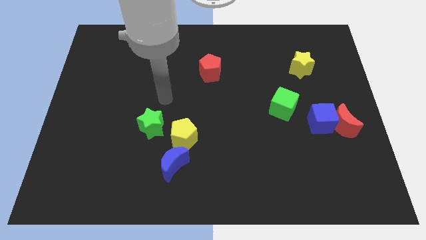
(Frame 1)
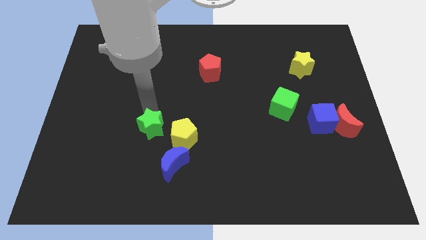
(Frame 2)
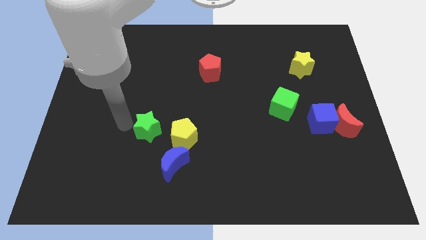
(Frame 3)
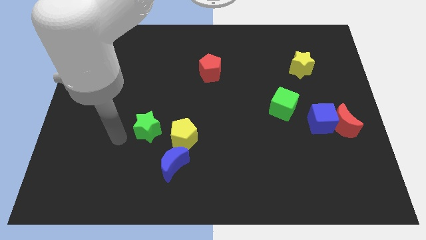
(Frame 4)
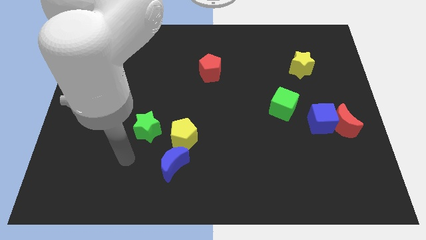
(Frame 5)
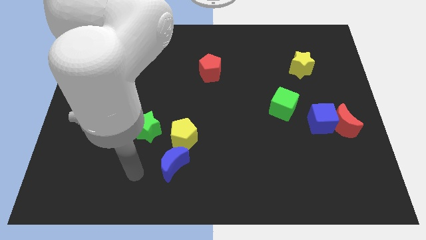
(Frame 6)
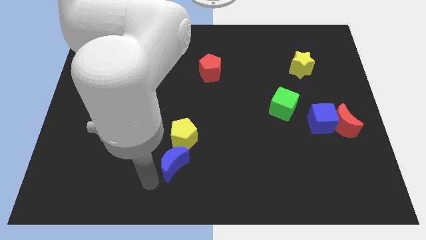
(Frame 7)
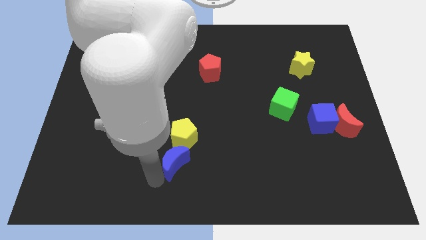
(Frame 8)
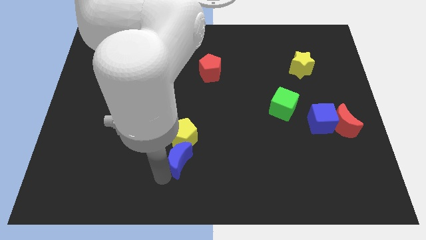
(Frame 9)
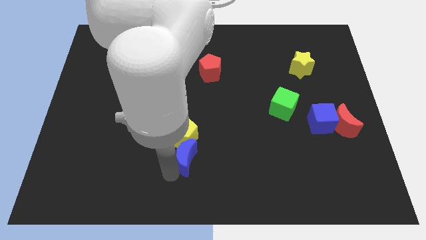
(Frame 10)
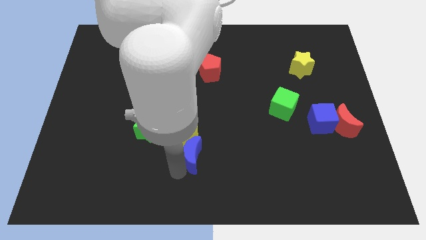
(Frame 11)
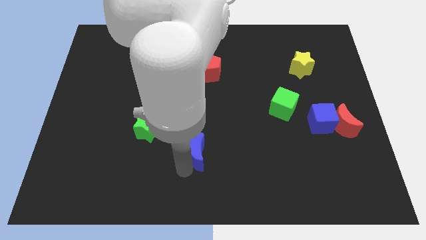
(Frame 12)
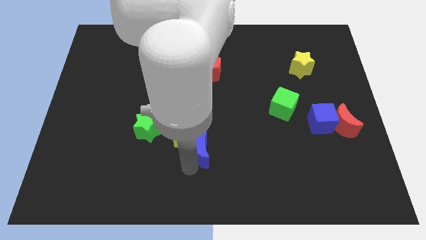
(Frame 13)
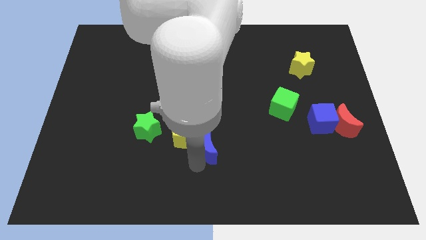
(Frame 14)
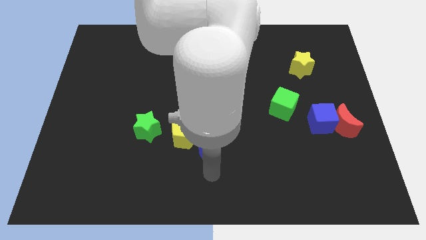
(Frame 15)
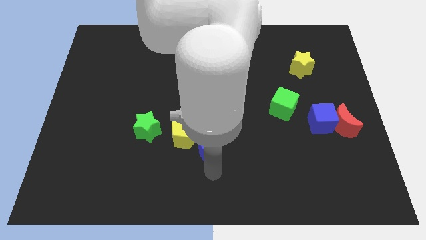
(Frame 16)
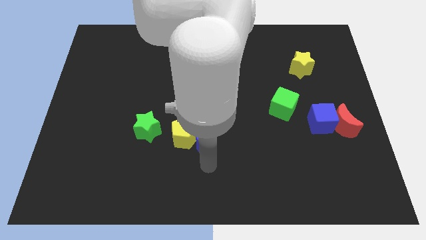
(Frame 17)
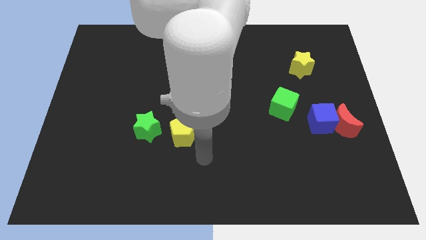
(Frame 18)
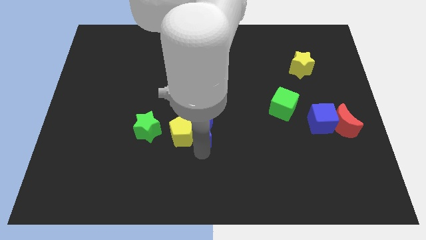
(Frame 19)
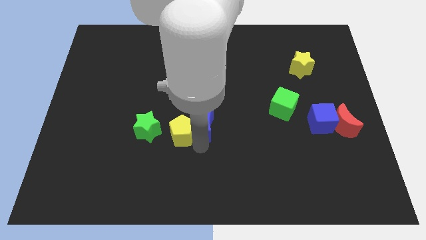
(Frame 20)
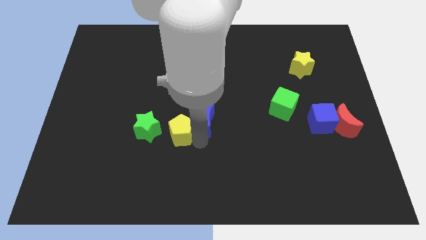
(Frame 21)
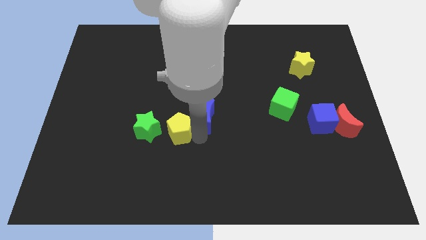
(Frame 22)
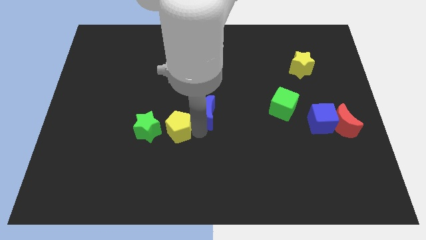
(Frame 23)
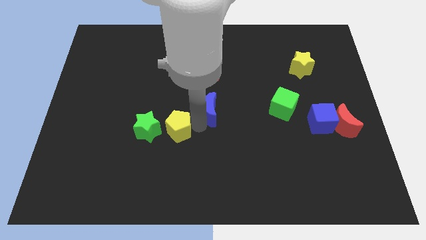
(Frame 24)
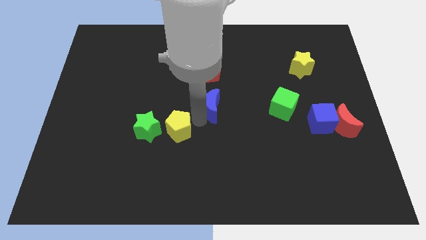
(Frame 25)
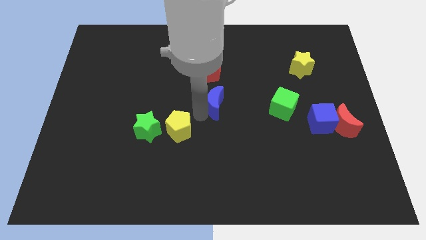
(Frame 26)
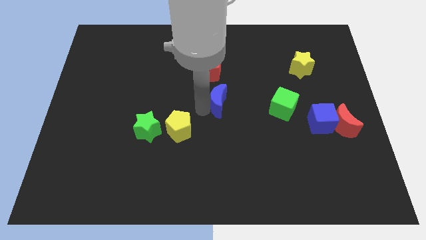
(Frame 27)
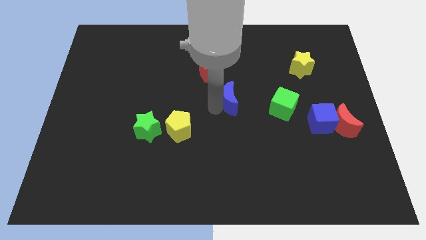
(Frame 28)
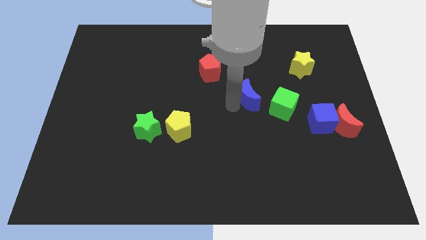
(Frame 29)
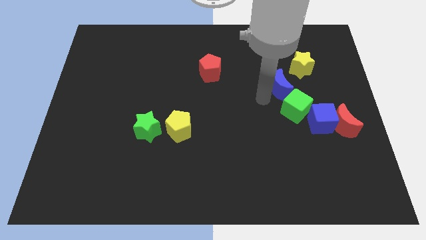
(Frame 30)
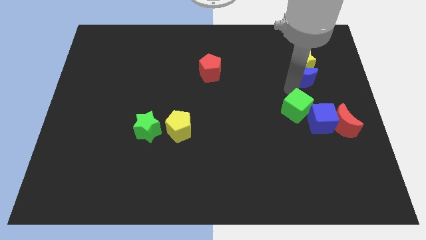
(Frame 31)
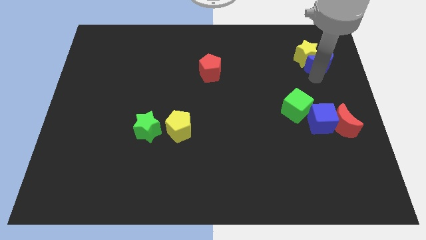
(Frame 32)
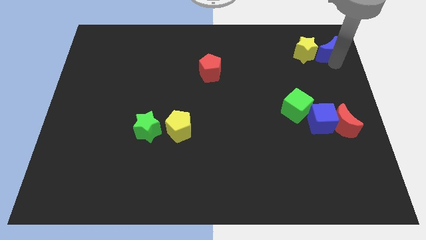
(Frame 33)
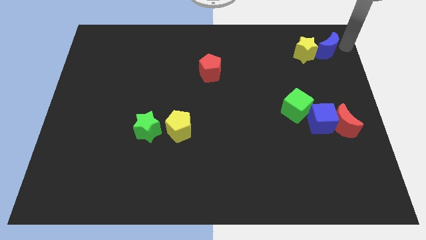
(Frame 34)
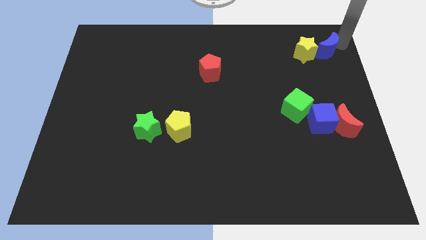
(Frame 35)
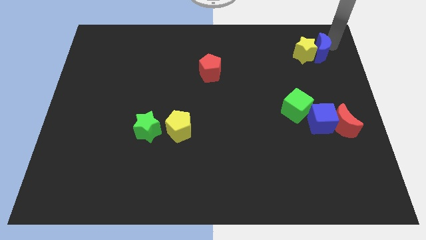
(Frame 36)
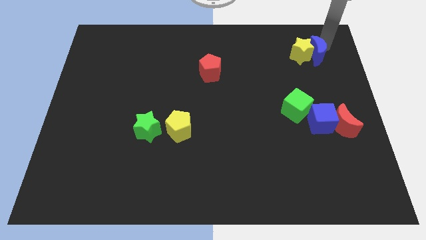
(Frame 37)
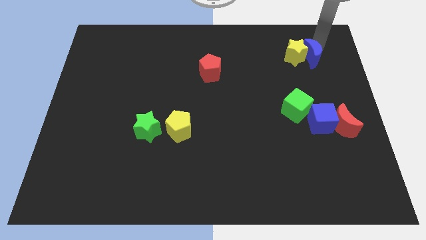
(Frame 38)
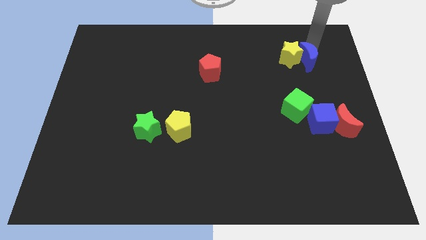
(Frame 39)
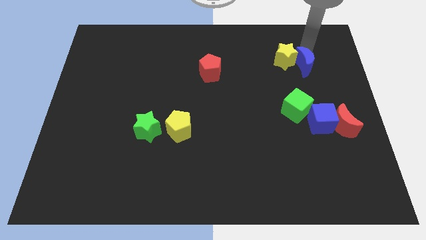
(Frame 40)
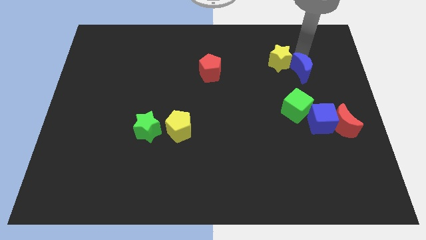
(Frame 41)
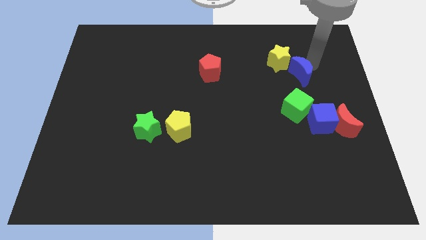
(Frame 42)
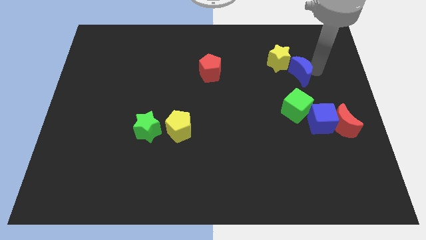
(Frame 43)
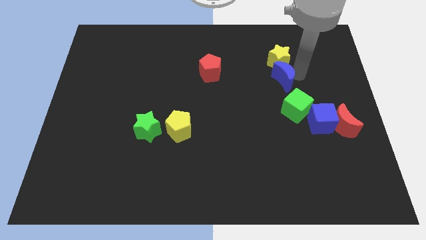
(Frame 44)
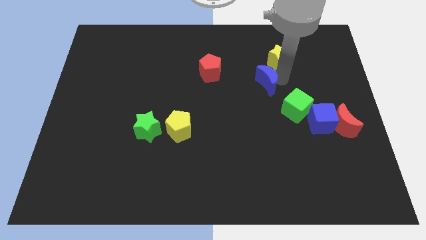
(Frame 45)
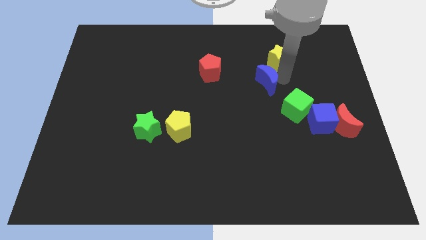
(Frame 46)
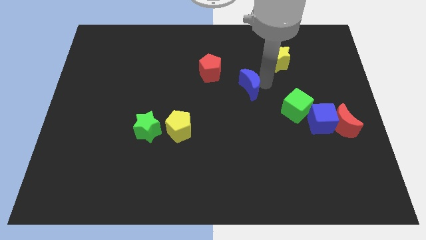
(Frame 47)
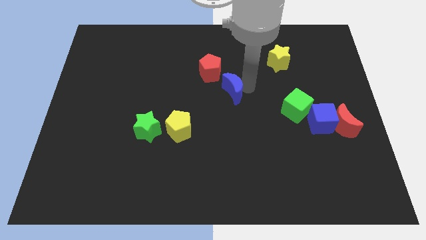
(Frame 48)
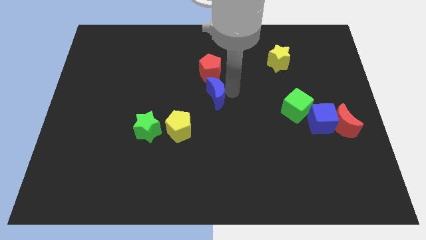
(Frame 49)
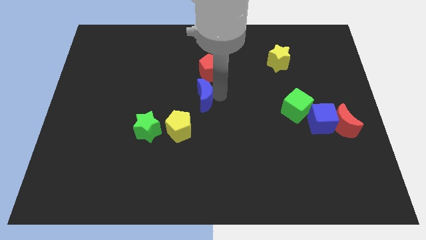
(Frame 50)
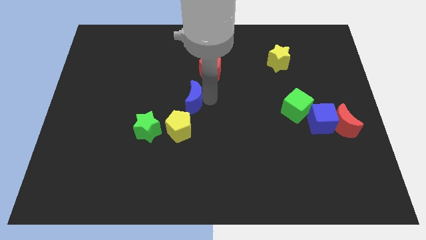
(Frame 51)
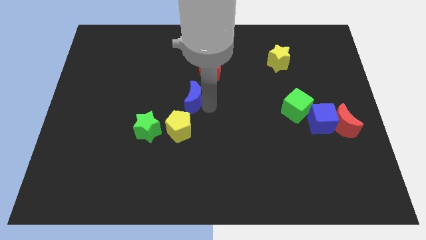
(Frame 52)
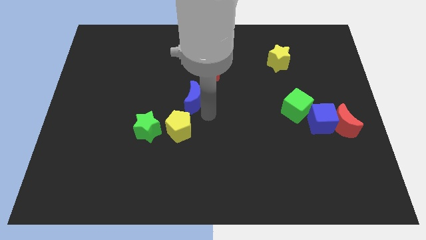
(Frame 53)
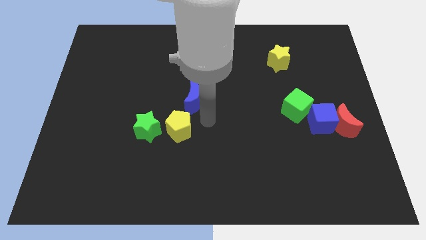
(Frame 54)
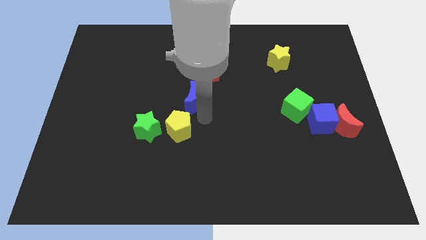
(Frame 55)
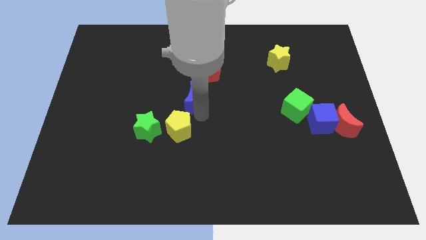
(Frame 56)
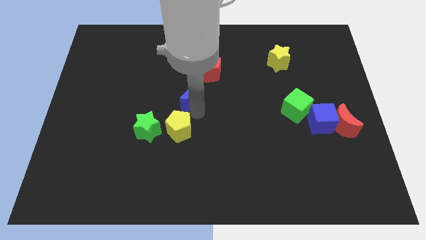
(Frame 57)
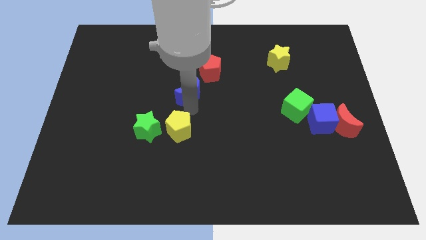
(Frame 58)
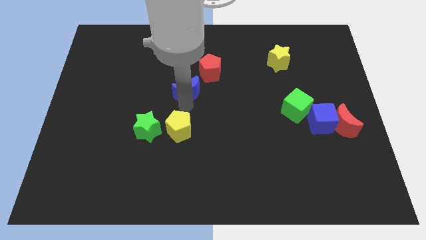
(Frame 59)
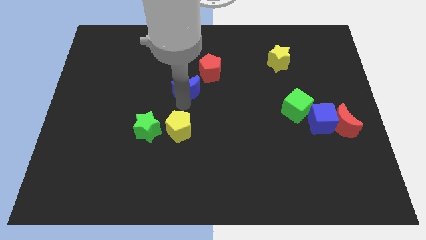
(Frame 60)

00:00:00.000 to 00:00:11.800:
move the blue moon upwards

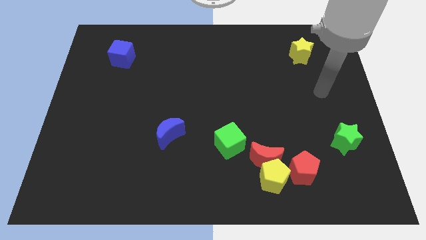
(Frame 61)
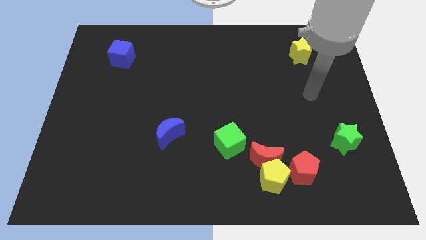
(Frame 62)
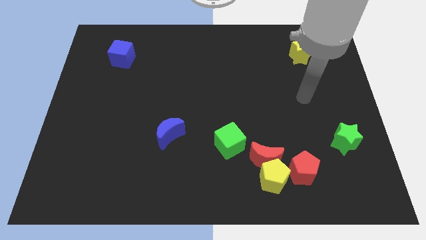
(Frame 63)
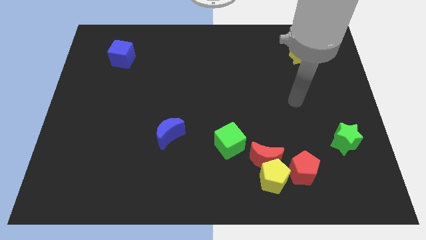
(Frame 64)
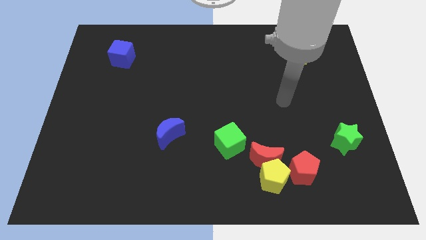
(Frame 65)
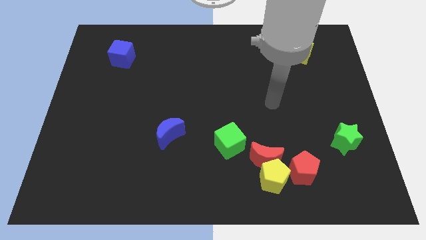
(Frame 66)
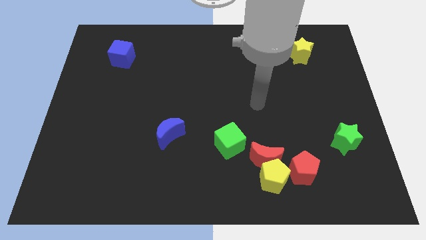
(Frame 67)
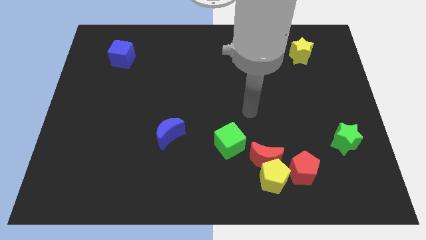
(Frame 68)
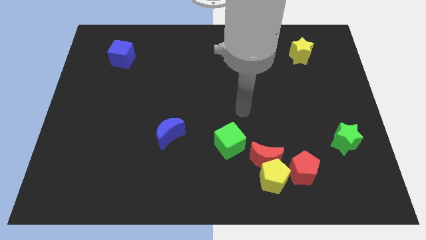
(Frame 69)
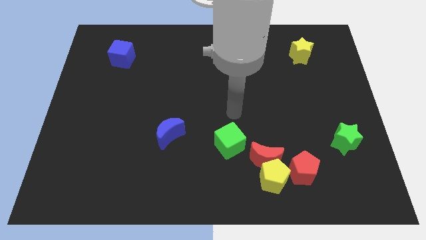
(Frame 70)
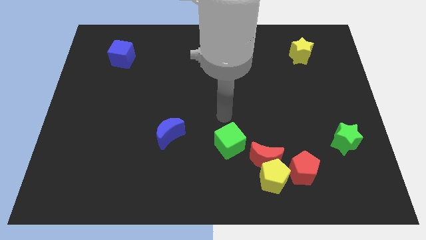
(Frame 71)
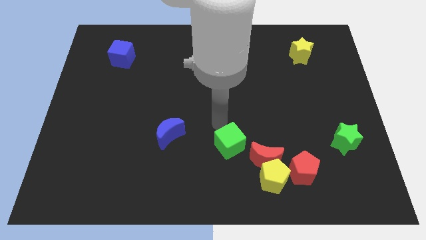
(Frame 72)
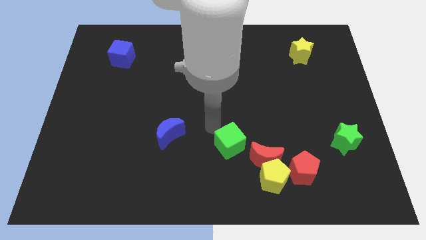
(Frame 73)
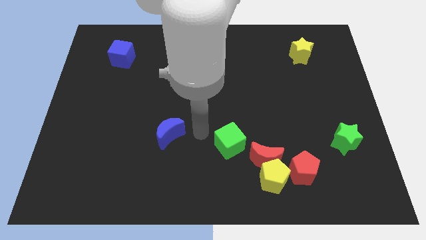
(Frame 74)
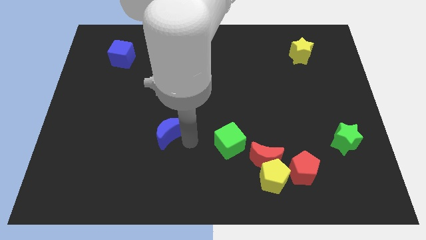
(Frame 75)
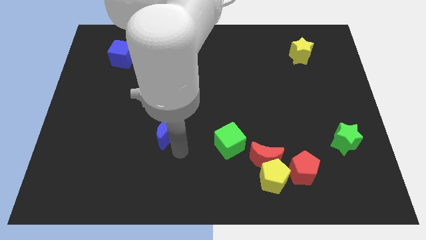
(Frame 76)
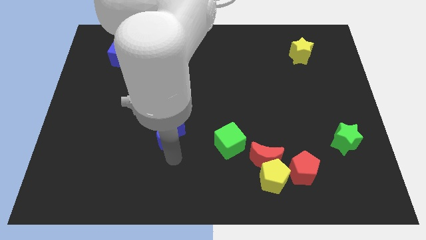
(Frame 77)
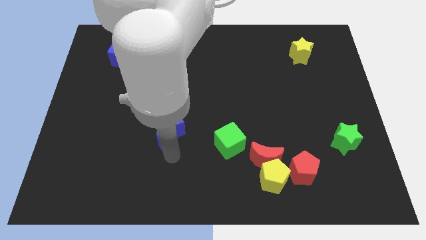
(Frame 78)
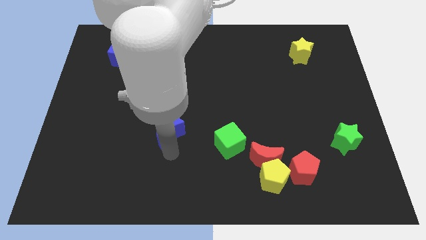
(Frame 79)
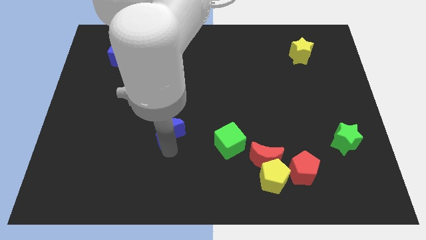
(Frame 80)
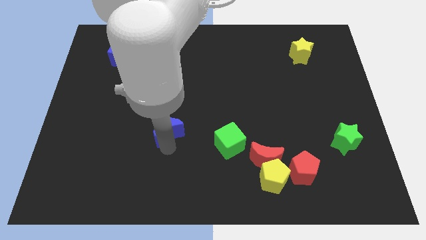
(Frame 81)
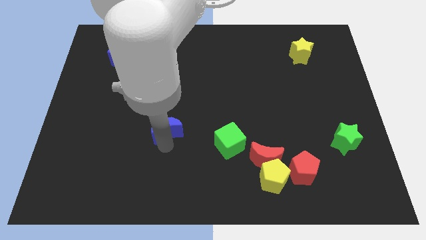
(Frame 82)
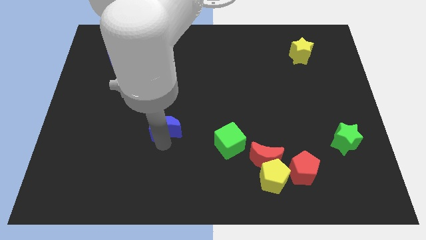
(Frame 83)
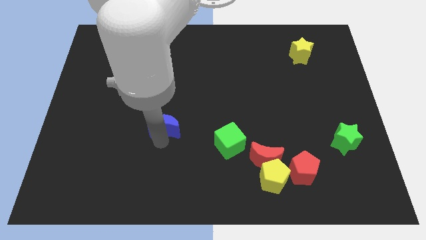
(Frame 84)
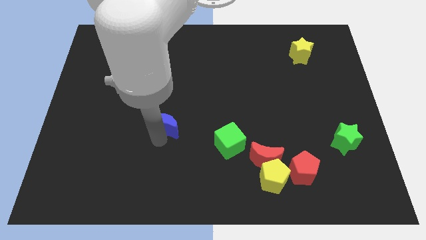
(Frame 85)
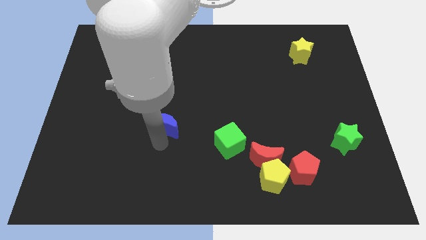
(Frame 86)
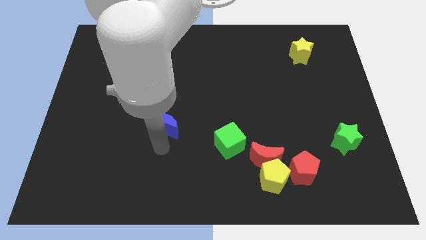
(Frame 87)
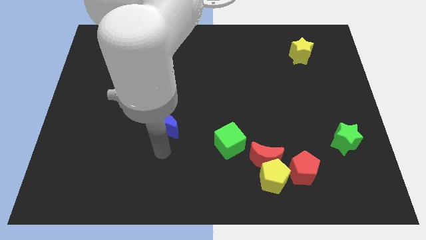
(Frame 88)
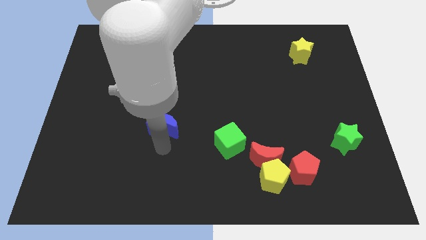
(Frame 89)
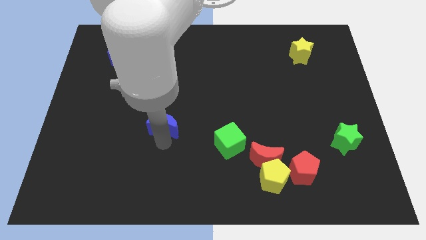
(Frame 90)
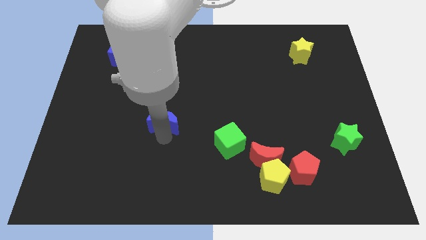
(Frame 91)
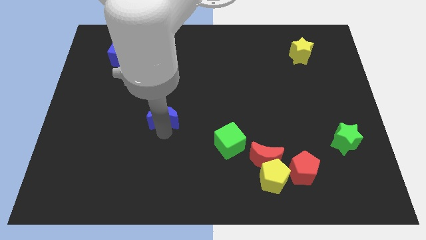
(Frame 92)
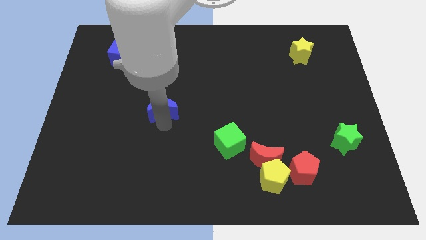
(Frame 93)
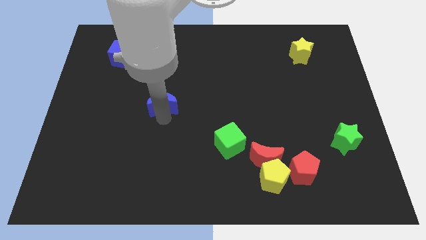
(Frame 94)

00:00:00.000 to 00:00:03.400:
push the blue moon a little upwards
